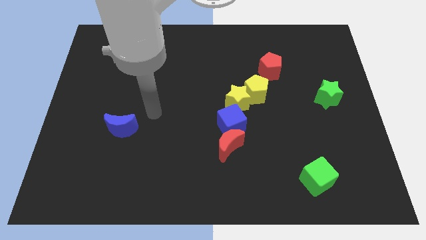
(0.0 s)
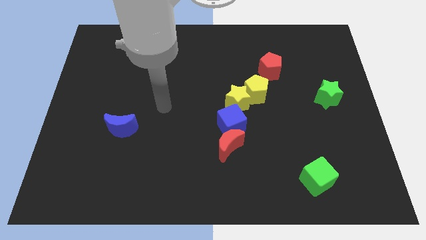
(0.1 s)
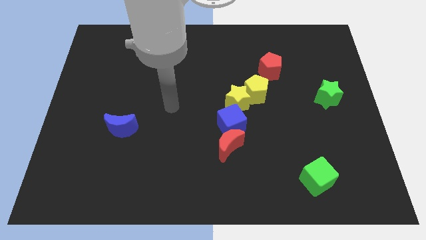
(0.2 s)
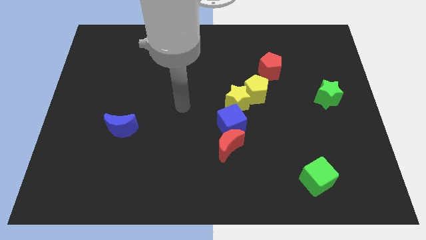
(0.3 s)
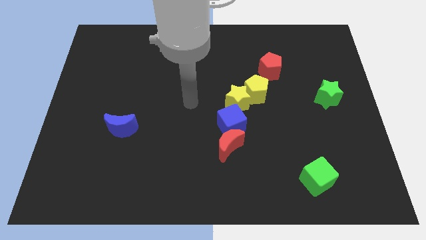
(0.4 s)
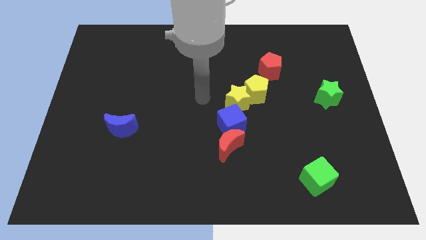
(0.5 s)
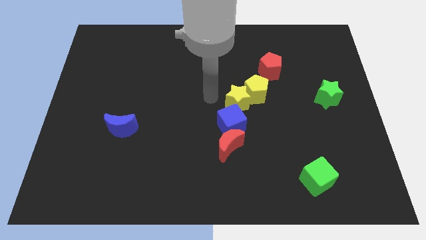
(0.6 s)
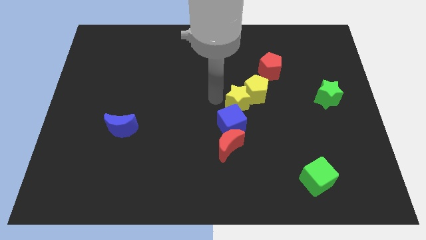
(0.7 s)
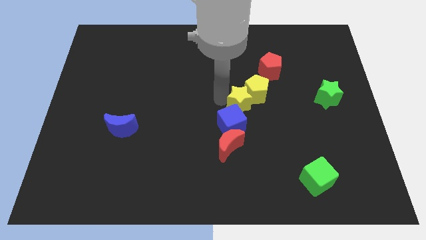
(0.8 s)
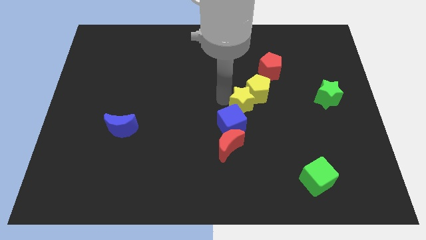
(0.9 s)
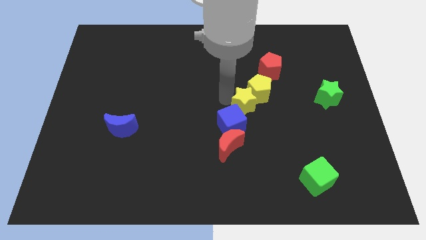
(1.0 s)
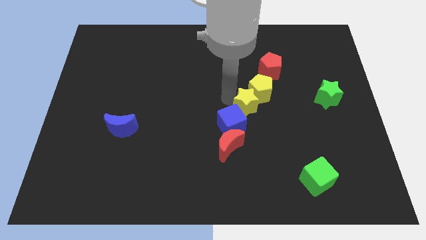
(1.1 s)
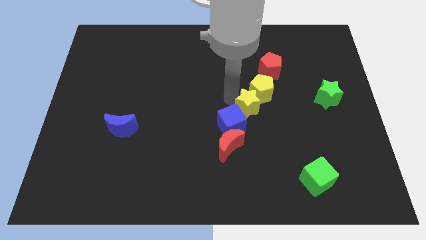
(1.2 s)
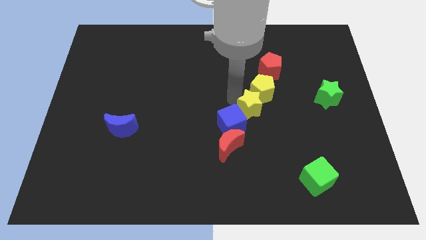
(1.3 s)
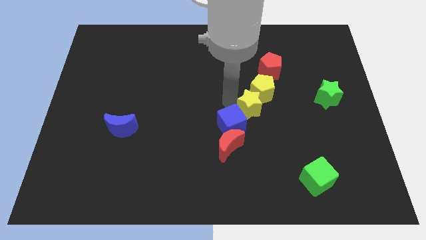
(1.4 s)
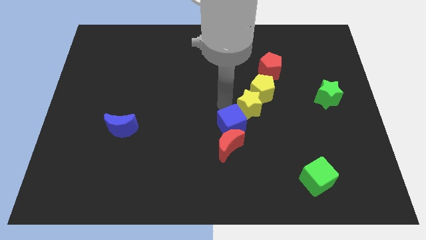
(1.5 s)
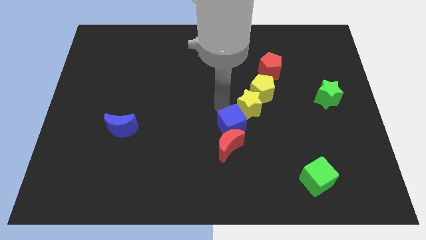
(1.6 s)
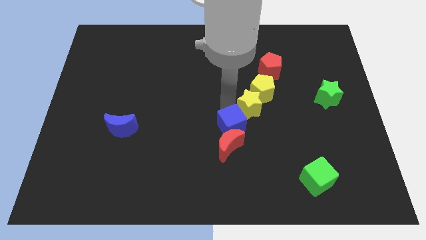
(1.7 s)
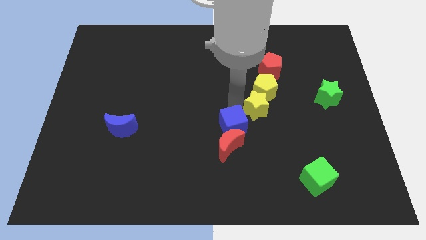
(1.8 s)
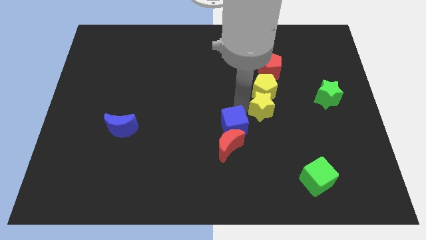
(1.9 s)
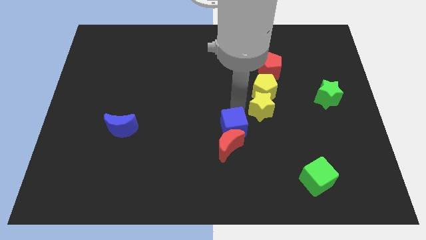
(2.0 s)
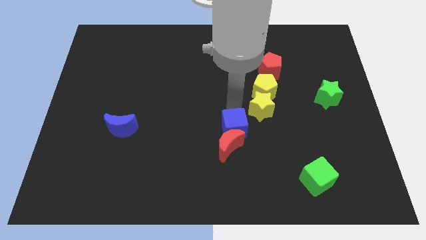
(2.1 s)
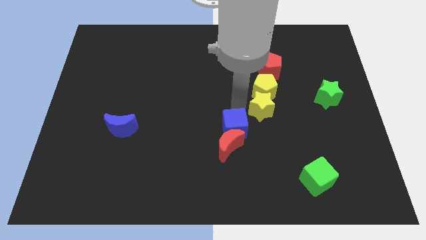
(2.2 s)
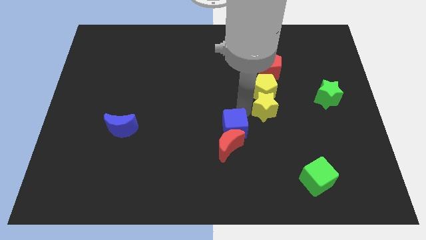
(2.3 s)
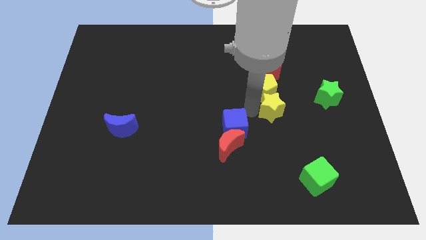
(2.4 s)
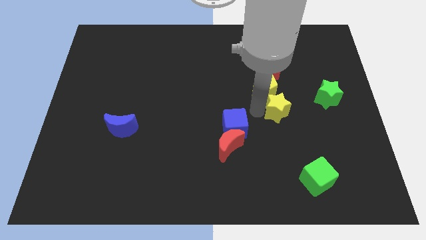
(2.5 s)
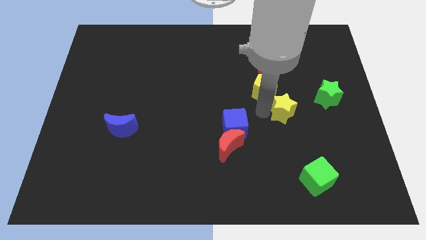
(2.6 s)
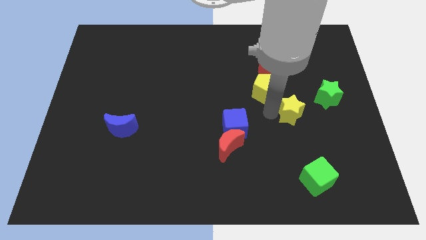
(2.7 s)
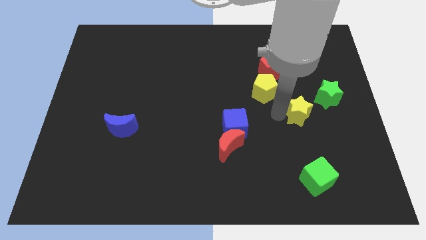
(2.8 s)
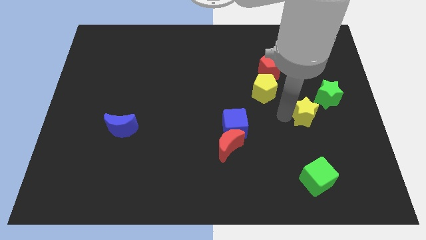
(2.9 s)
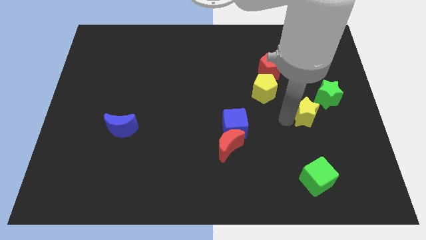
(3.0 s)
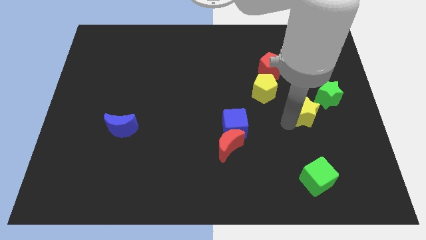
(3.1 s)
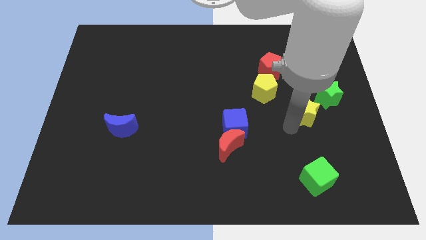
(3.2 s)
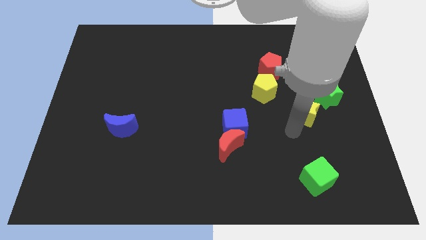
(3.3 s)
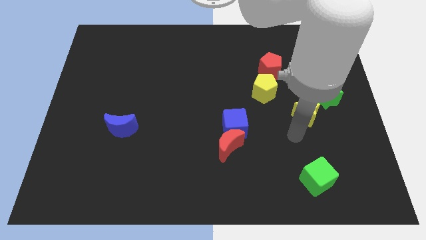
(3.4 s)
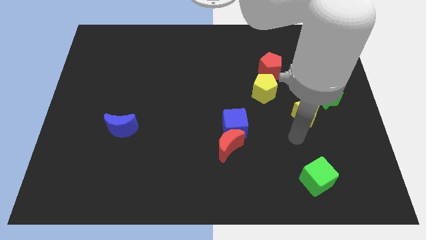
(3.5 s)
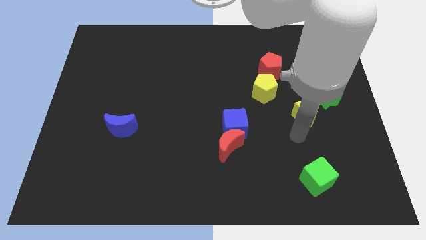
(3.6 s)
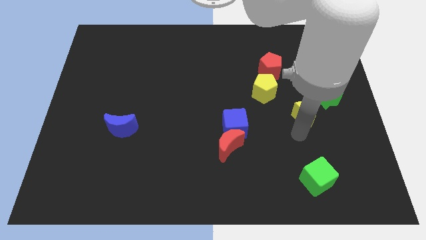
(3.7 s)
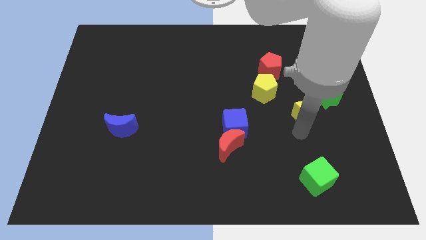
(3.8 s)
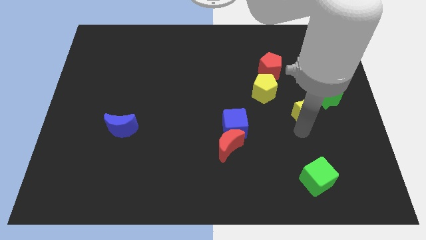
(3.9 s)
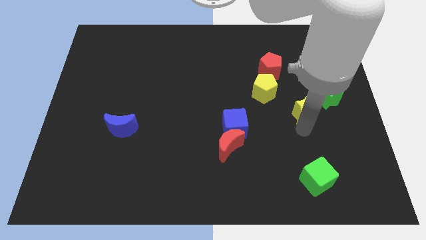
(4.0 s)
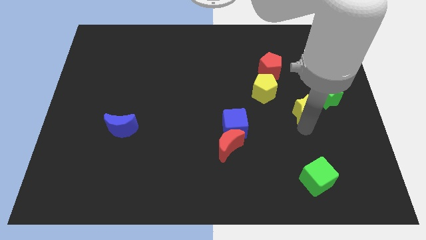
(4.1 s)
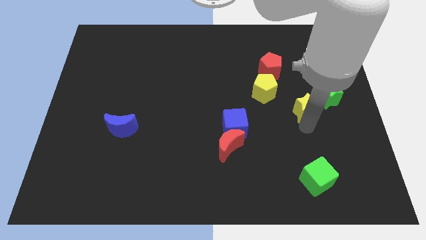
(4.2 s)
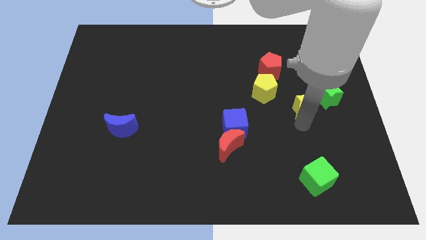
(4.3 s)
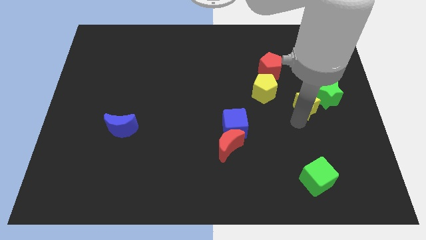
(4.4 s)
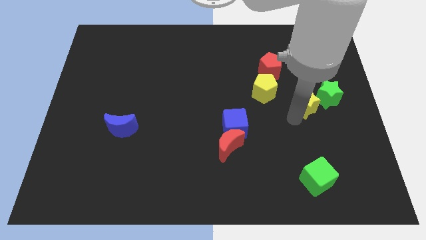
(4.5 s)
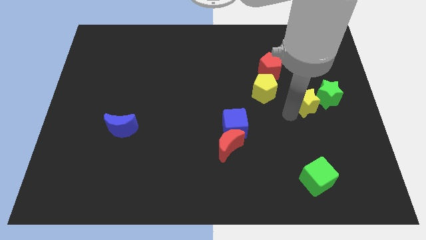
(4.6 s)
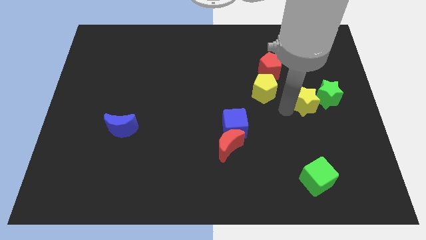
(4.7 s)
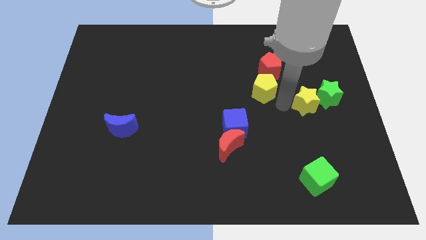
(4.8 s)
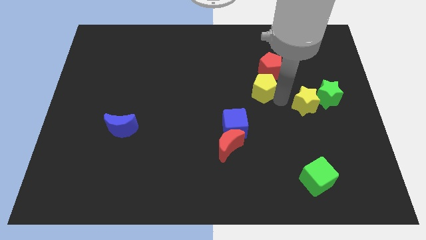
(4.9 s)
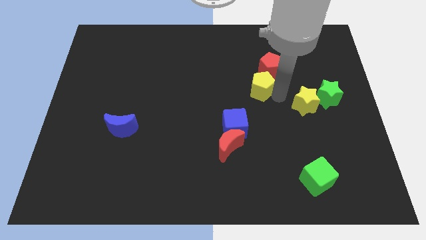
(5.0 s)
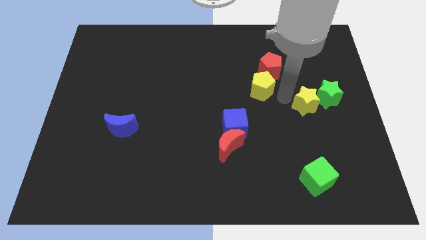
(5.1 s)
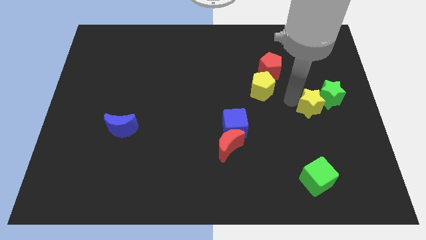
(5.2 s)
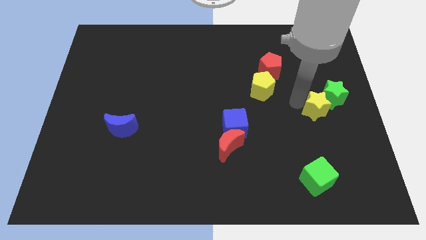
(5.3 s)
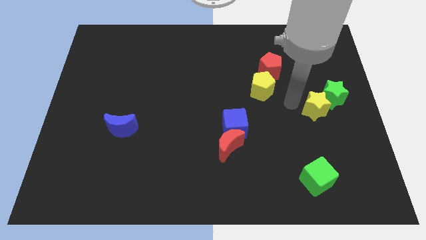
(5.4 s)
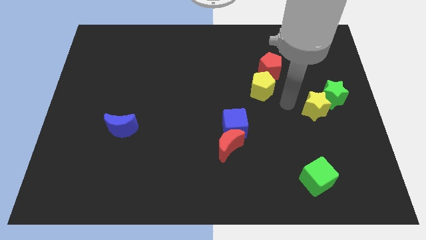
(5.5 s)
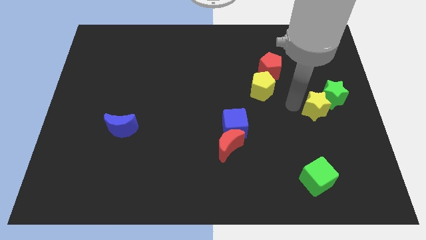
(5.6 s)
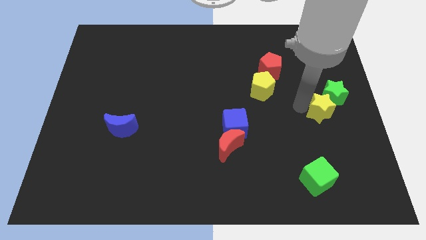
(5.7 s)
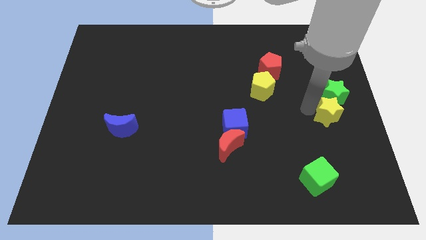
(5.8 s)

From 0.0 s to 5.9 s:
push the yellow star to the right side of the board

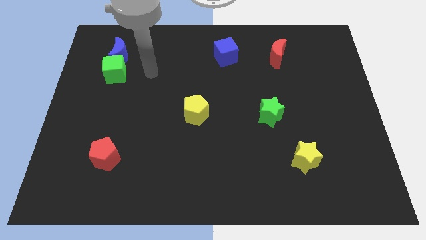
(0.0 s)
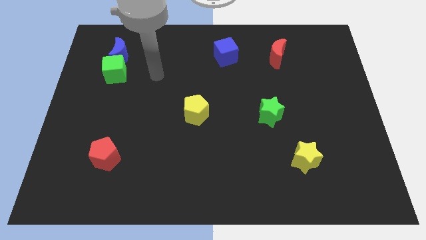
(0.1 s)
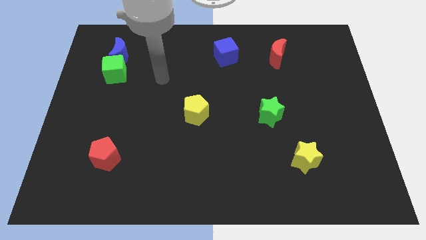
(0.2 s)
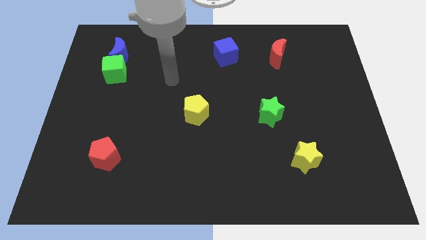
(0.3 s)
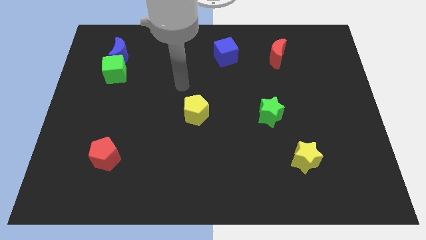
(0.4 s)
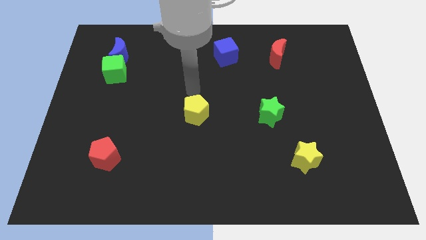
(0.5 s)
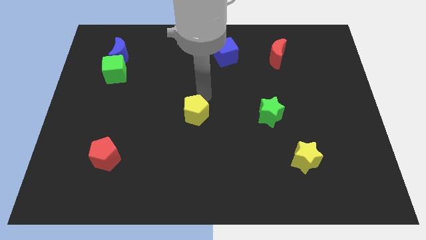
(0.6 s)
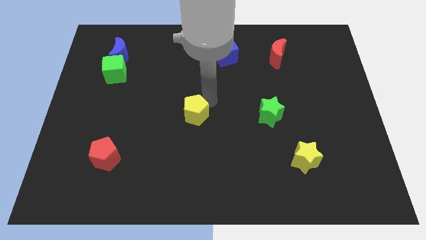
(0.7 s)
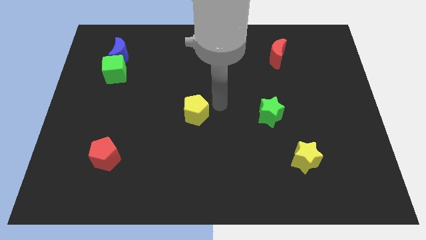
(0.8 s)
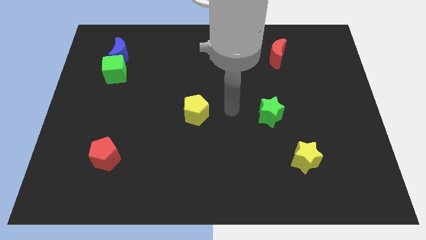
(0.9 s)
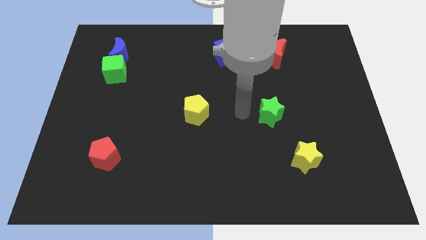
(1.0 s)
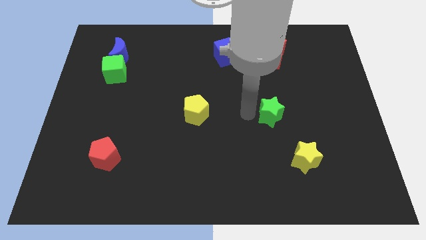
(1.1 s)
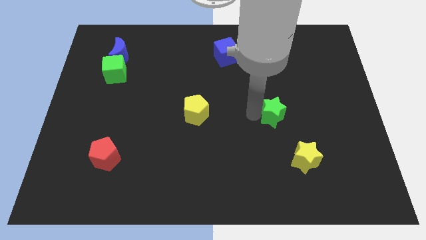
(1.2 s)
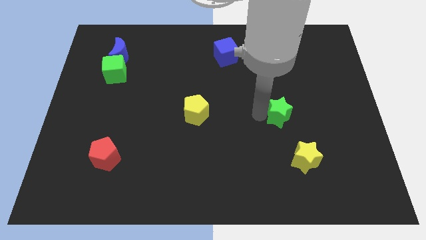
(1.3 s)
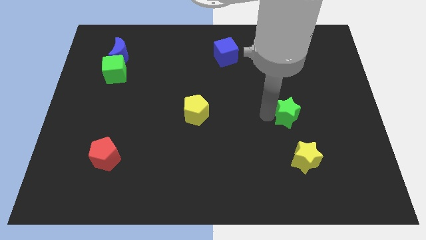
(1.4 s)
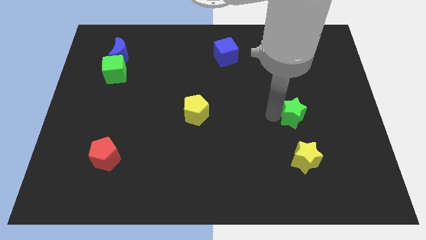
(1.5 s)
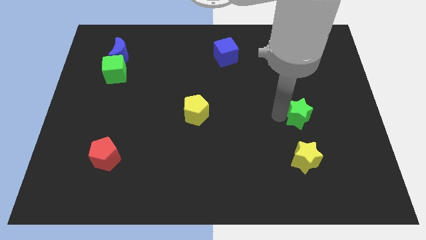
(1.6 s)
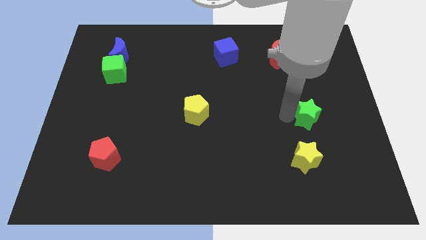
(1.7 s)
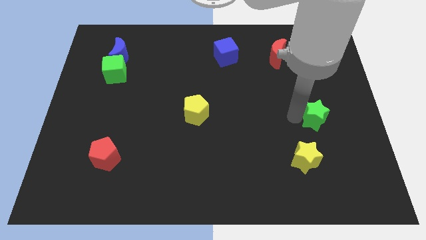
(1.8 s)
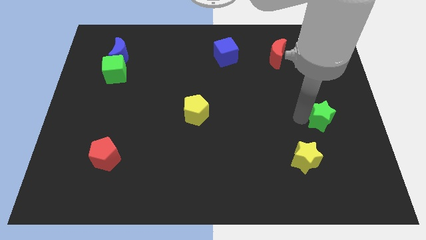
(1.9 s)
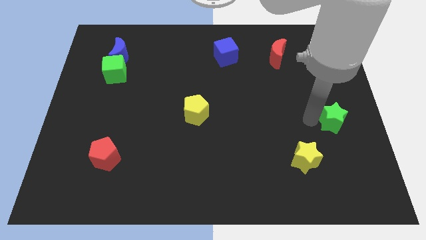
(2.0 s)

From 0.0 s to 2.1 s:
put the green star to the right side of the board
